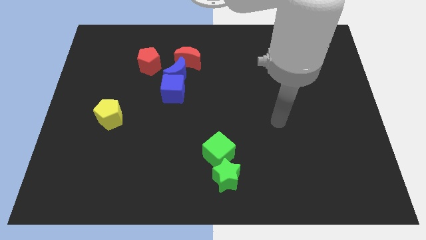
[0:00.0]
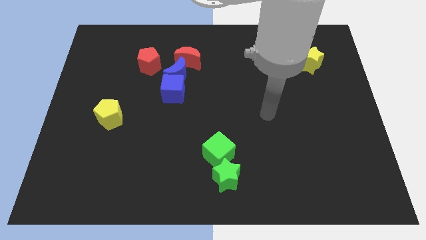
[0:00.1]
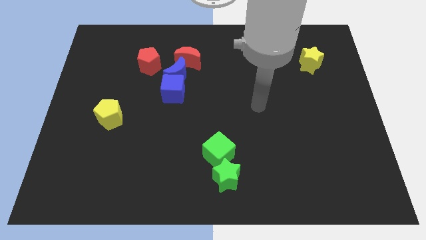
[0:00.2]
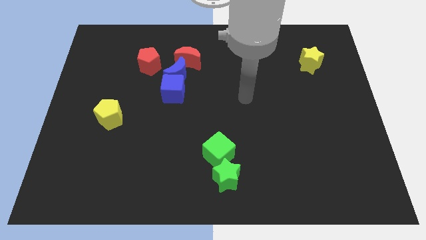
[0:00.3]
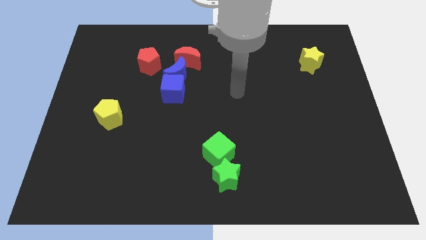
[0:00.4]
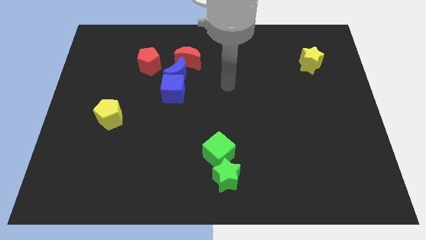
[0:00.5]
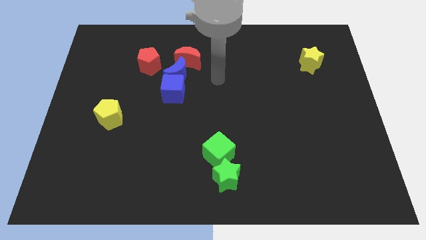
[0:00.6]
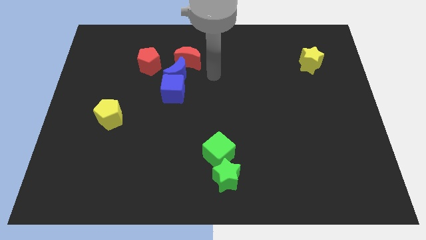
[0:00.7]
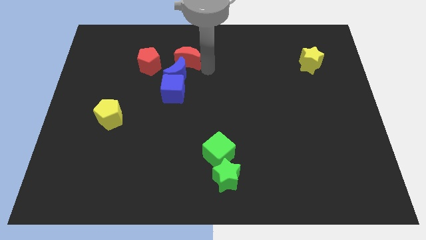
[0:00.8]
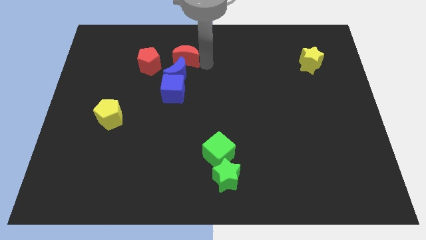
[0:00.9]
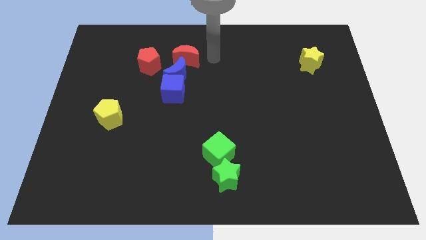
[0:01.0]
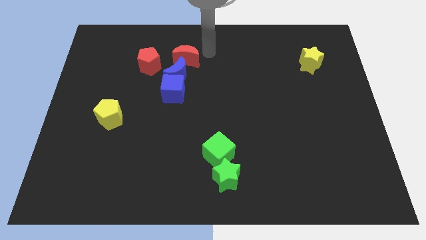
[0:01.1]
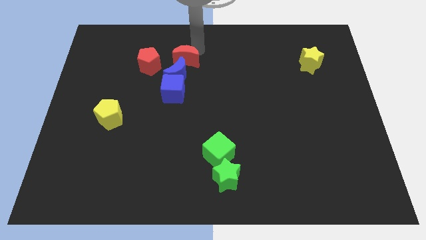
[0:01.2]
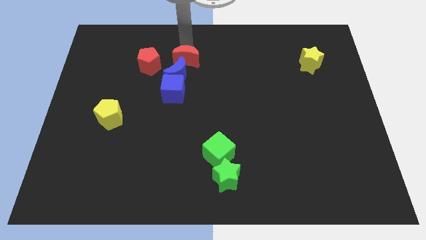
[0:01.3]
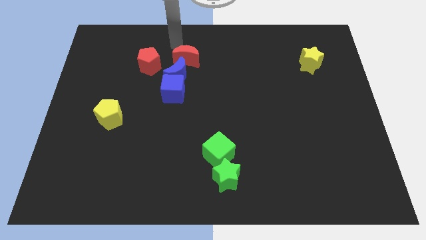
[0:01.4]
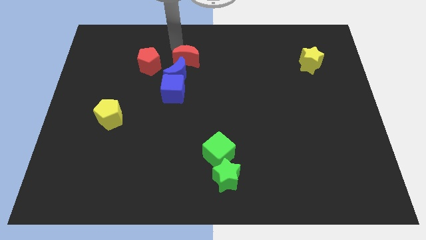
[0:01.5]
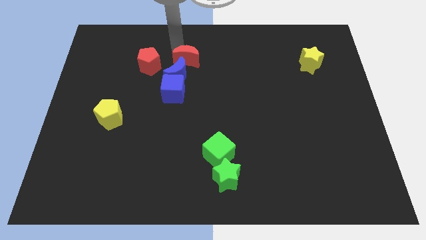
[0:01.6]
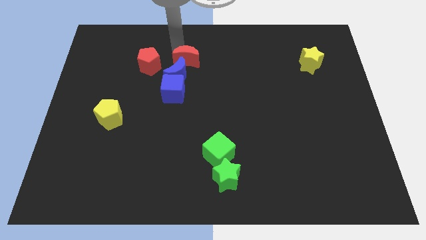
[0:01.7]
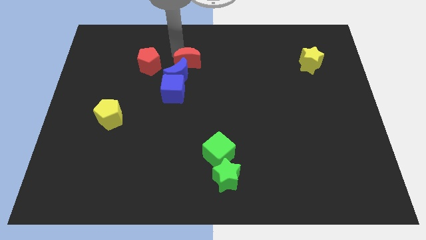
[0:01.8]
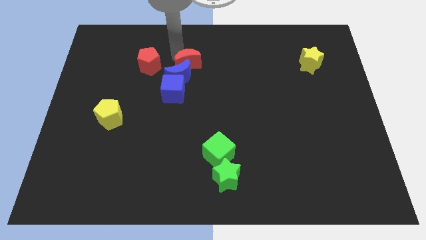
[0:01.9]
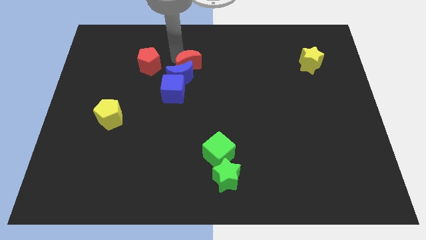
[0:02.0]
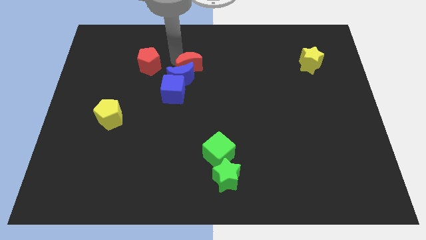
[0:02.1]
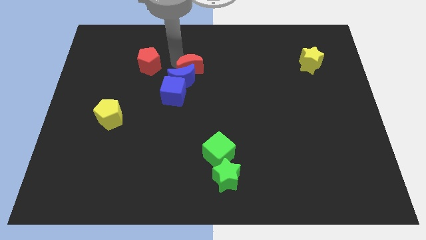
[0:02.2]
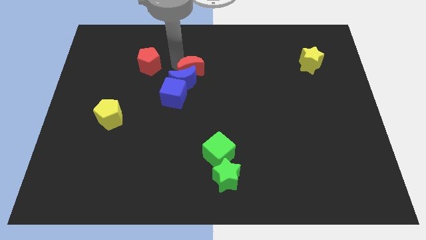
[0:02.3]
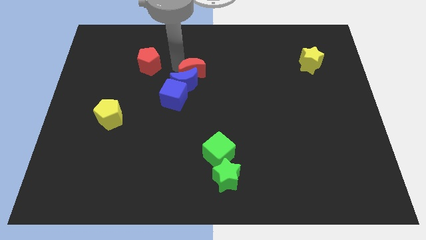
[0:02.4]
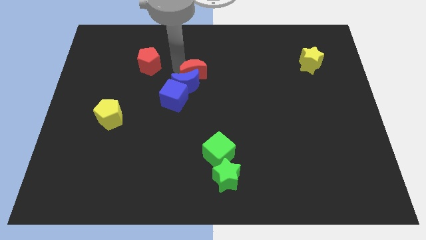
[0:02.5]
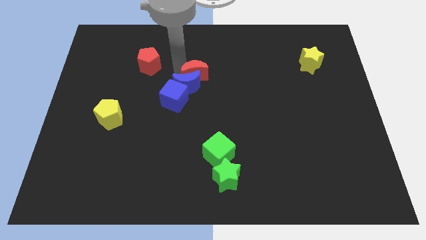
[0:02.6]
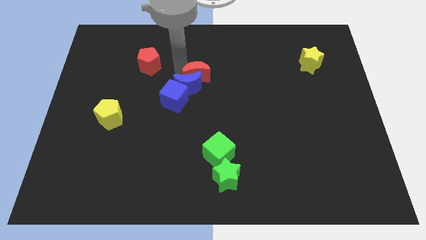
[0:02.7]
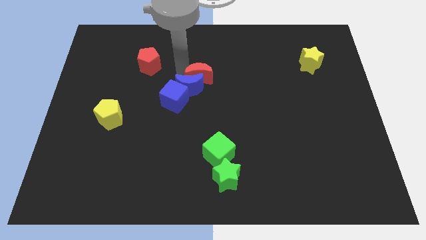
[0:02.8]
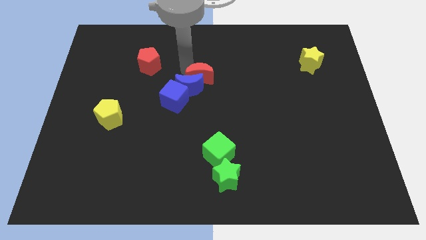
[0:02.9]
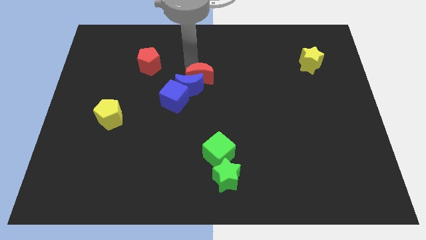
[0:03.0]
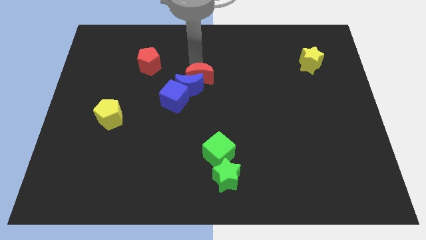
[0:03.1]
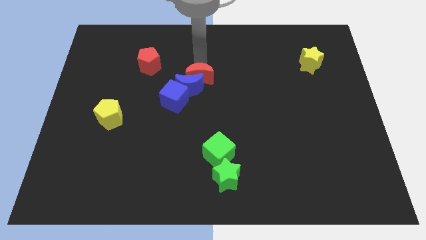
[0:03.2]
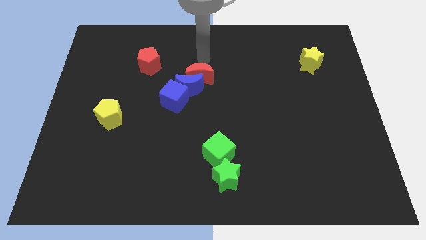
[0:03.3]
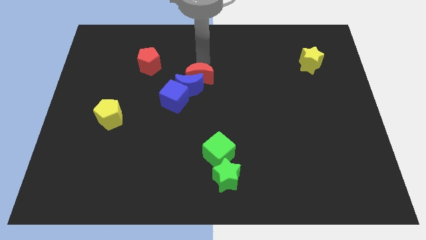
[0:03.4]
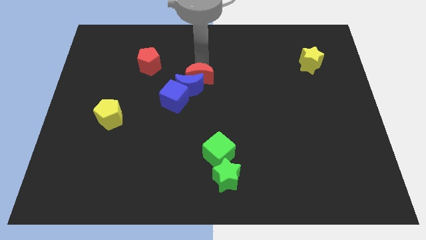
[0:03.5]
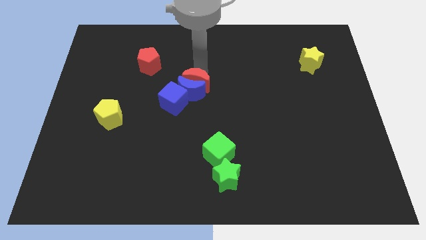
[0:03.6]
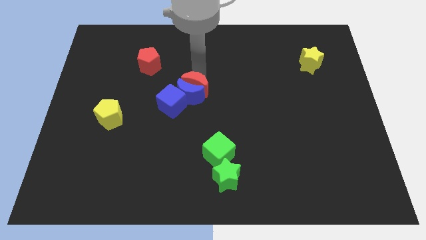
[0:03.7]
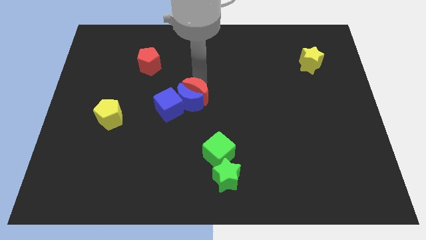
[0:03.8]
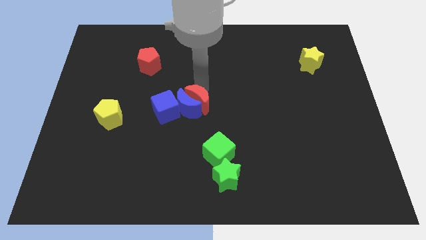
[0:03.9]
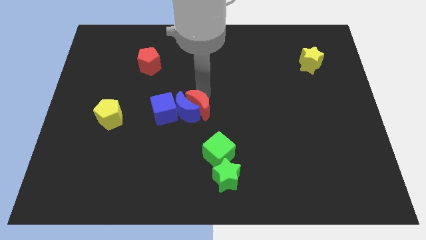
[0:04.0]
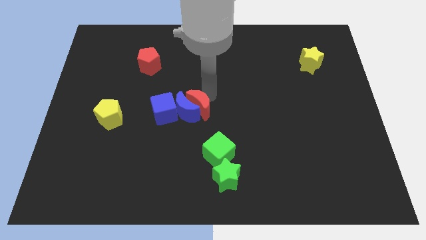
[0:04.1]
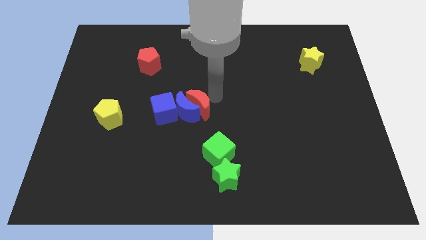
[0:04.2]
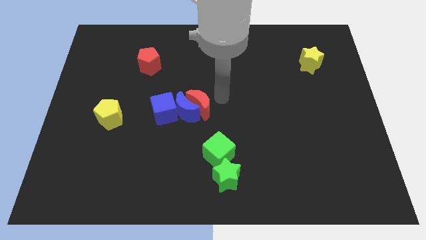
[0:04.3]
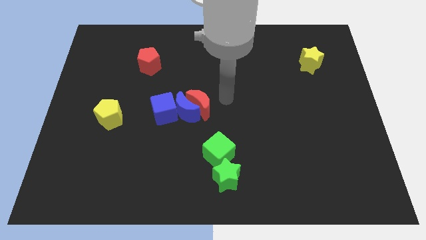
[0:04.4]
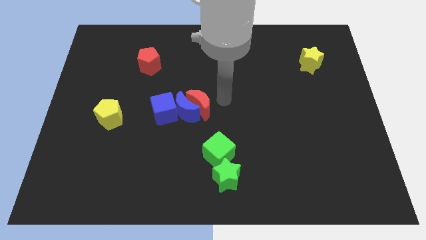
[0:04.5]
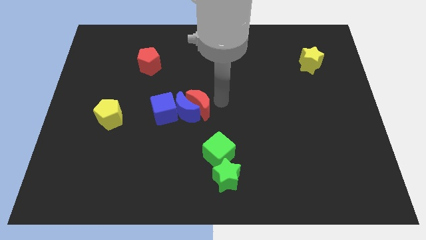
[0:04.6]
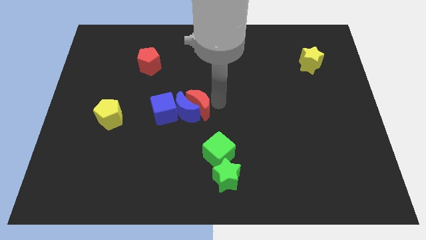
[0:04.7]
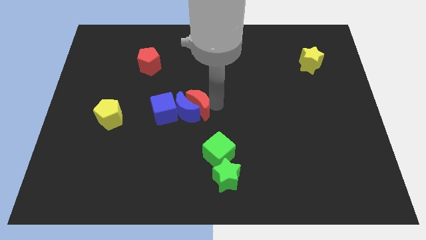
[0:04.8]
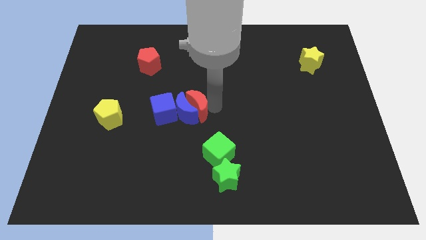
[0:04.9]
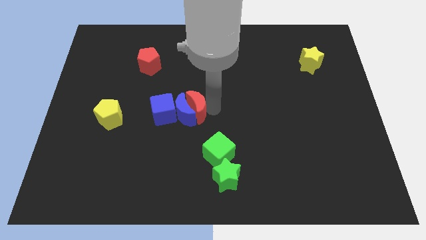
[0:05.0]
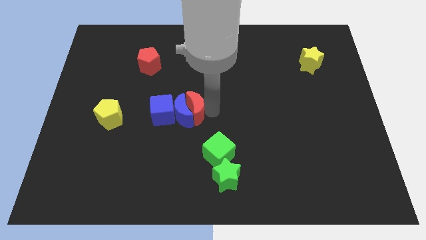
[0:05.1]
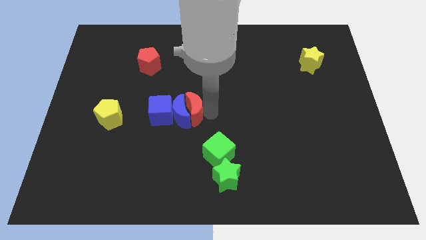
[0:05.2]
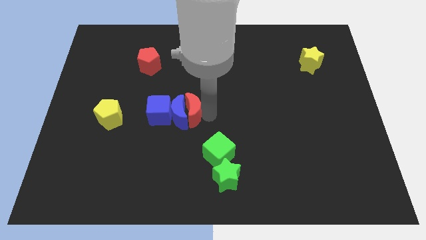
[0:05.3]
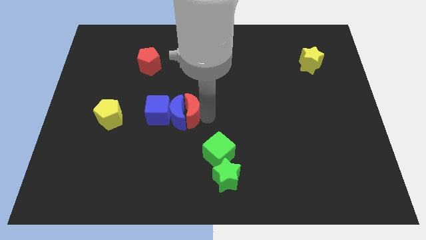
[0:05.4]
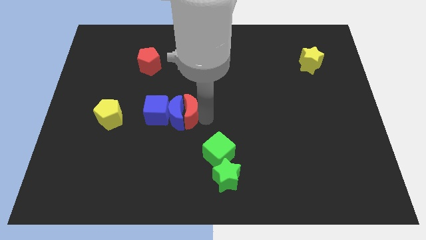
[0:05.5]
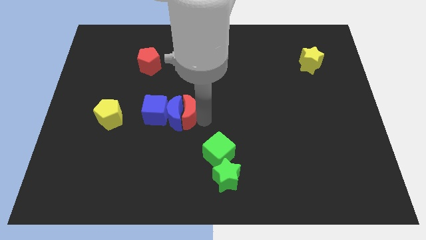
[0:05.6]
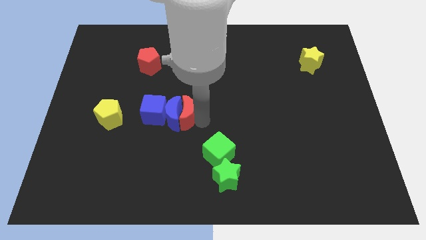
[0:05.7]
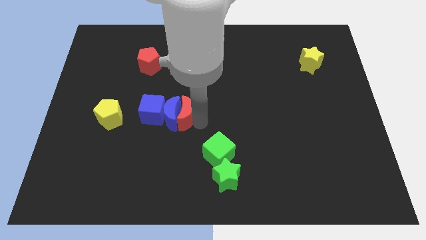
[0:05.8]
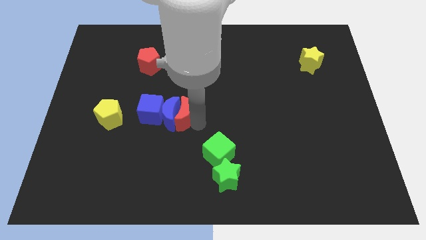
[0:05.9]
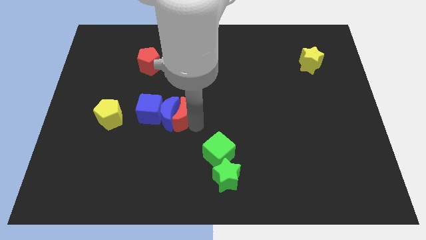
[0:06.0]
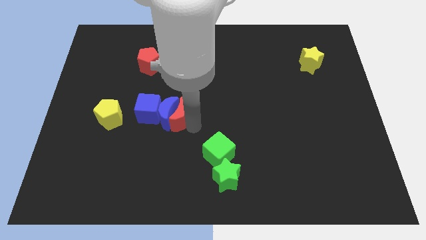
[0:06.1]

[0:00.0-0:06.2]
push the red moon to the right of the yellow pentagon

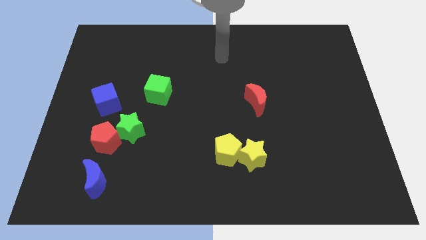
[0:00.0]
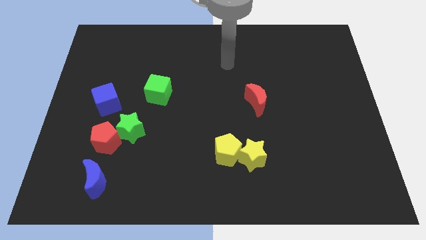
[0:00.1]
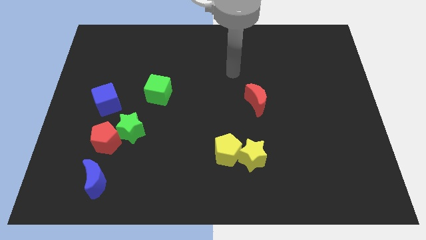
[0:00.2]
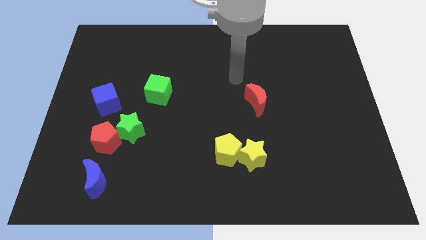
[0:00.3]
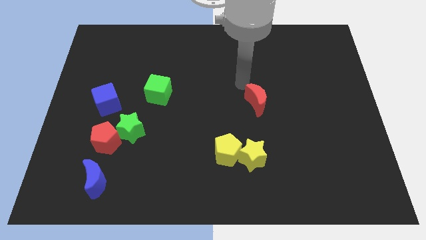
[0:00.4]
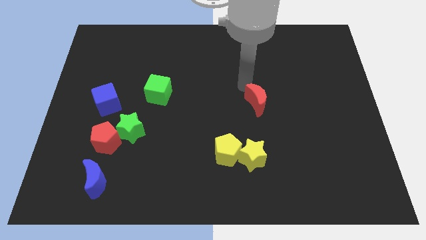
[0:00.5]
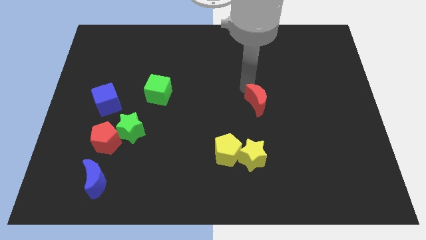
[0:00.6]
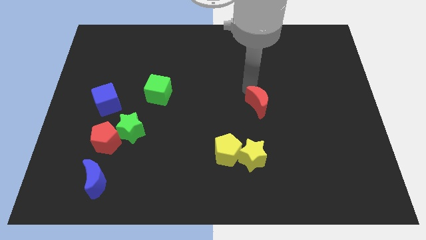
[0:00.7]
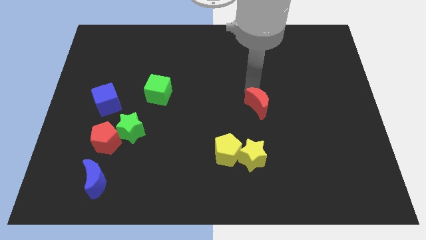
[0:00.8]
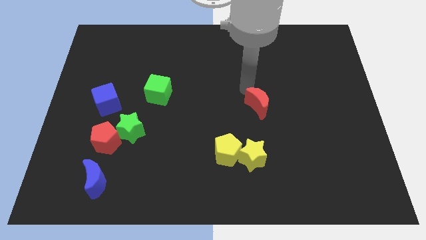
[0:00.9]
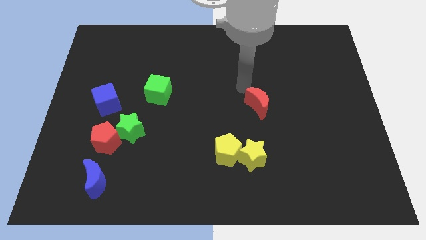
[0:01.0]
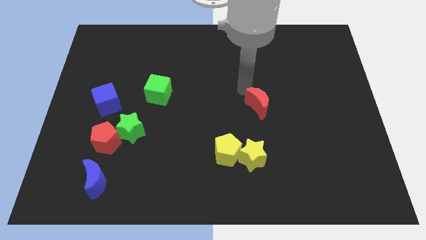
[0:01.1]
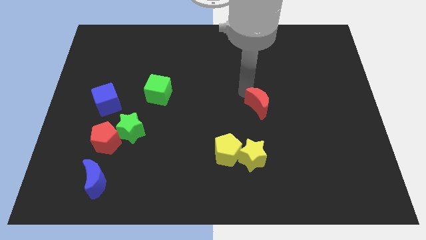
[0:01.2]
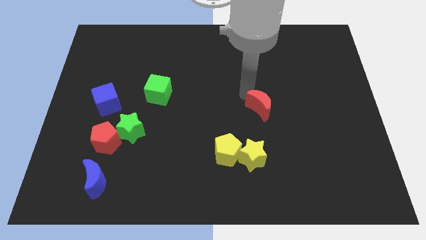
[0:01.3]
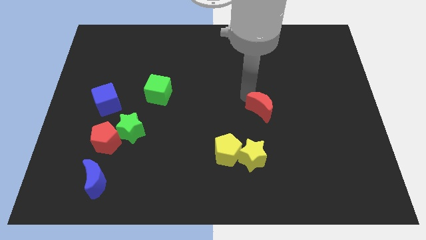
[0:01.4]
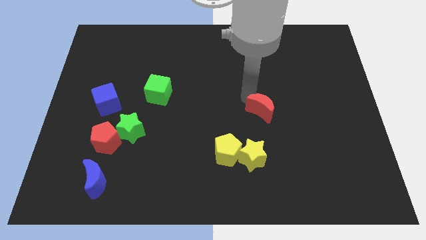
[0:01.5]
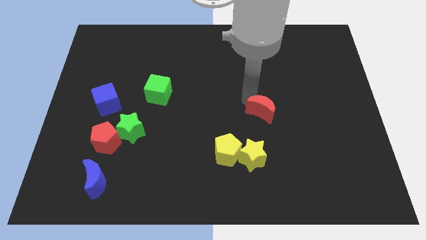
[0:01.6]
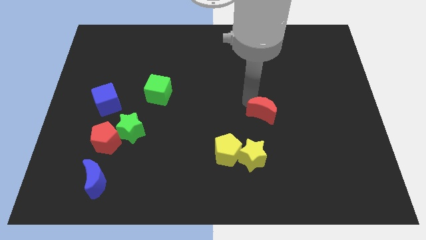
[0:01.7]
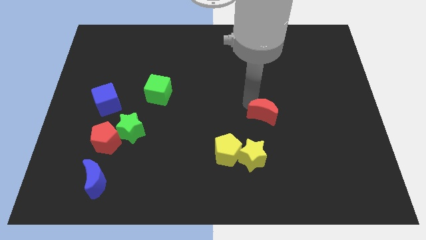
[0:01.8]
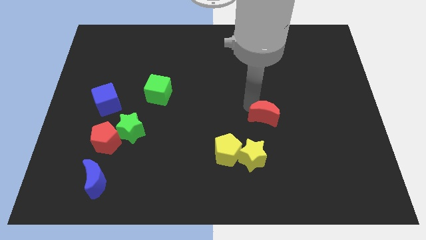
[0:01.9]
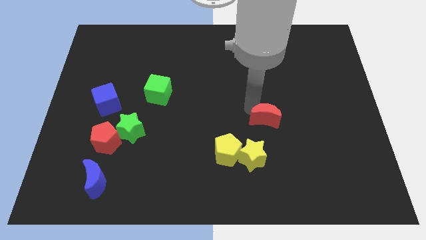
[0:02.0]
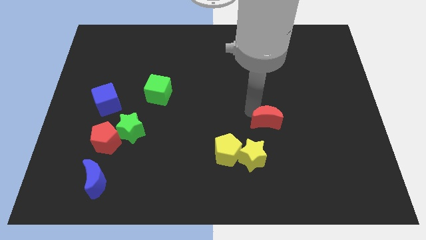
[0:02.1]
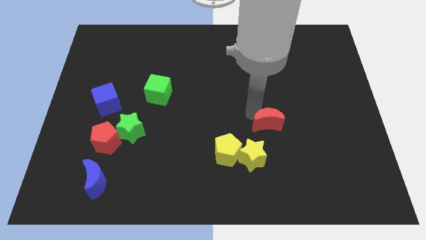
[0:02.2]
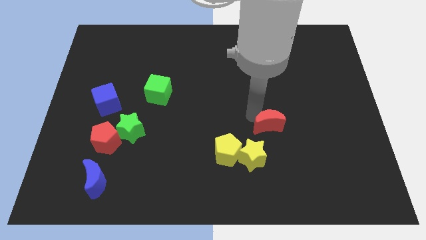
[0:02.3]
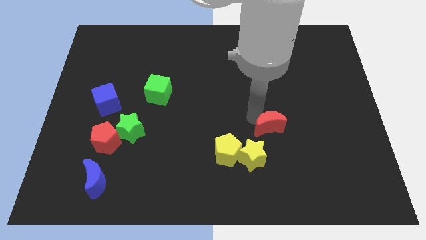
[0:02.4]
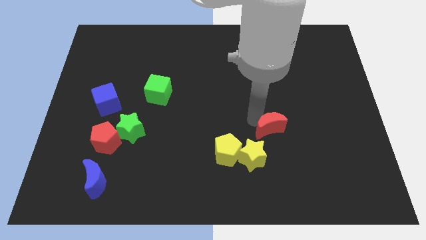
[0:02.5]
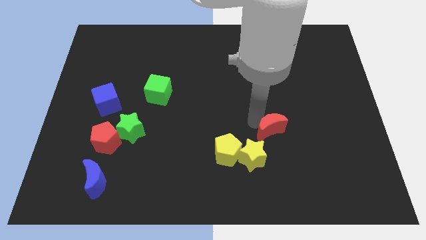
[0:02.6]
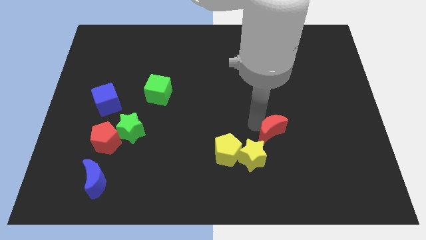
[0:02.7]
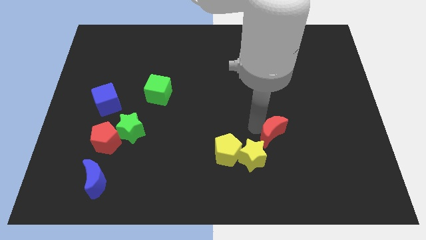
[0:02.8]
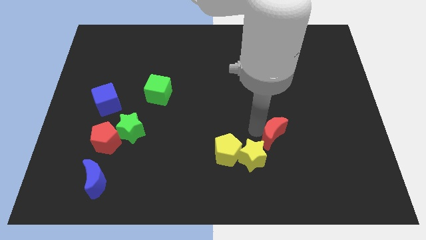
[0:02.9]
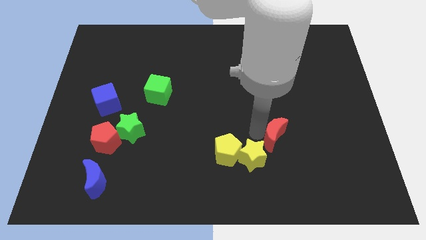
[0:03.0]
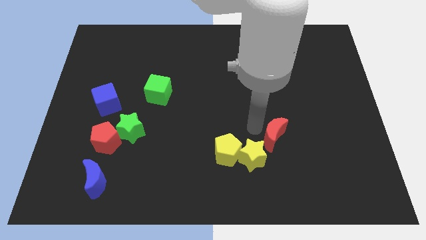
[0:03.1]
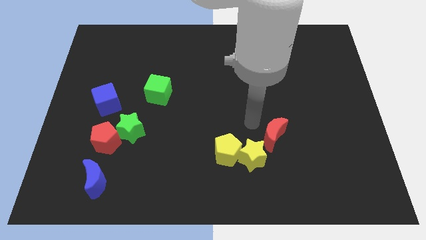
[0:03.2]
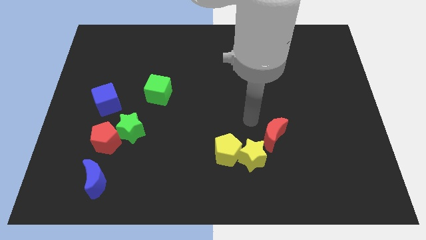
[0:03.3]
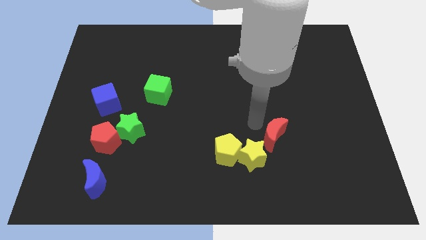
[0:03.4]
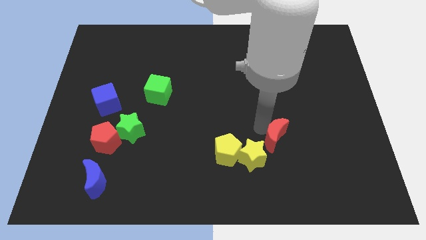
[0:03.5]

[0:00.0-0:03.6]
move the red moon right of the yellow star
